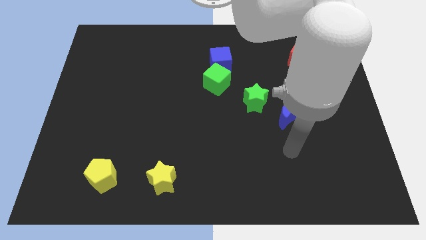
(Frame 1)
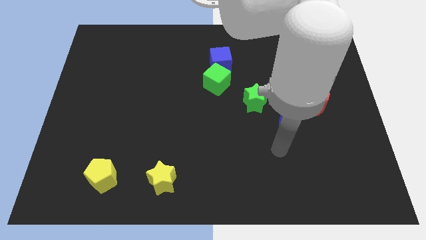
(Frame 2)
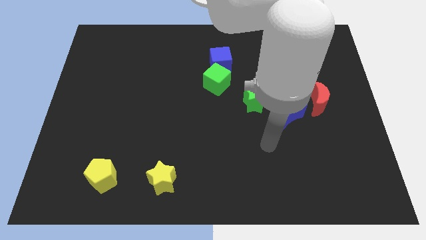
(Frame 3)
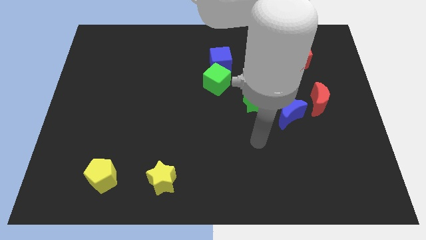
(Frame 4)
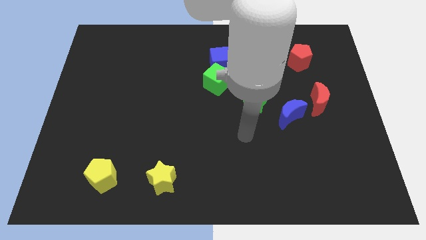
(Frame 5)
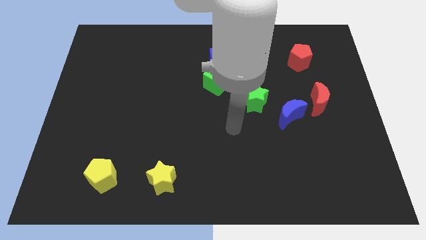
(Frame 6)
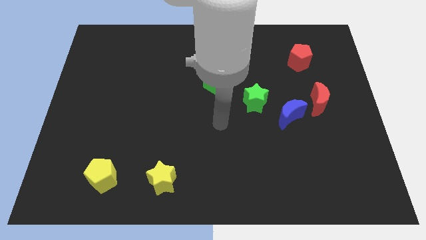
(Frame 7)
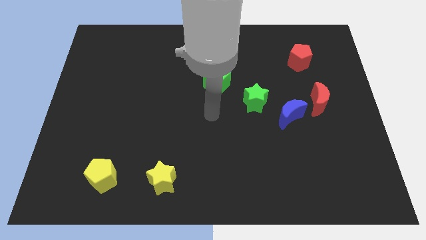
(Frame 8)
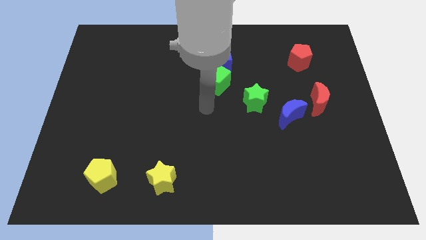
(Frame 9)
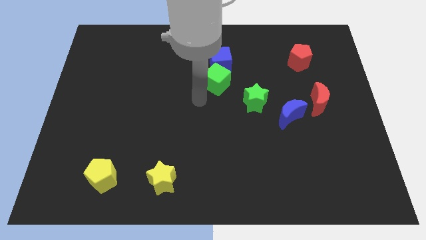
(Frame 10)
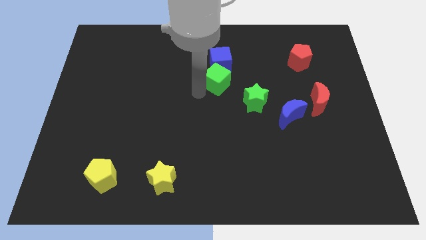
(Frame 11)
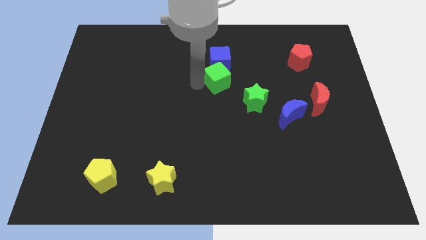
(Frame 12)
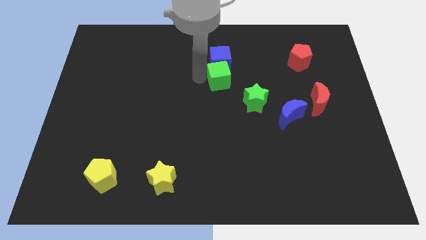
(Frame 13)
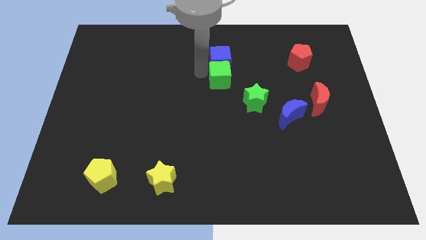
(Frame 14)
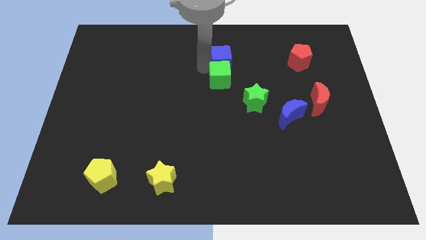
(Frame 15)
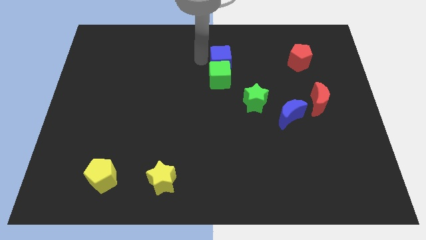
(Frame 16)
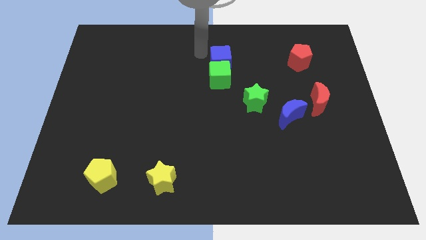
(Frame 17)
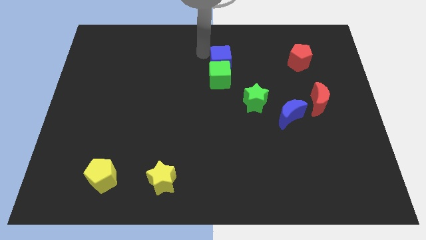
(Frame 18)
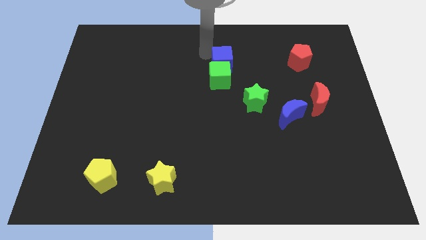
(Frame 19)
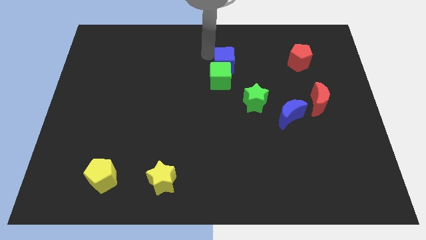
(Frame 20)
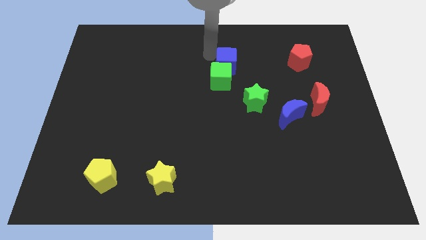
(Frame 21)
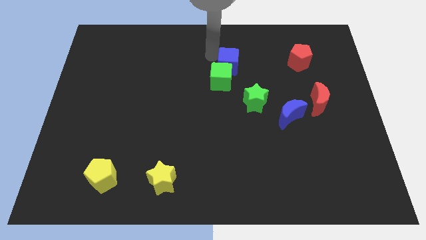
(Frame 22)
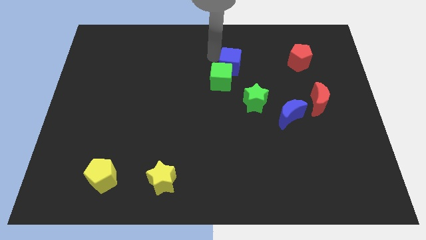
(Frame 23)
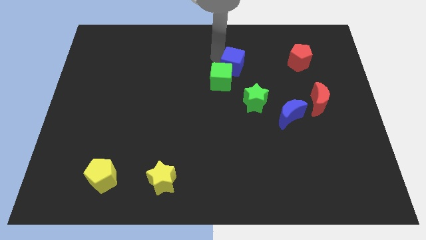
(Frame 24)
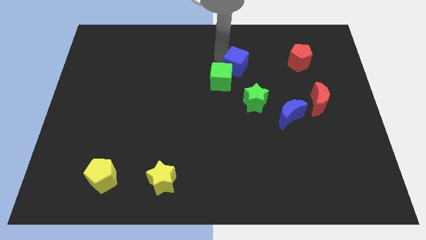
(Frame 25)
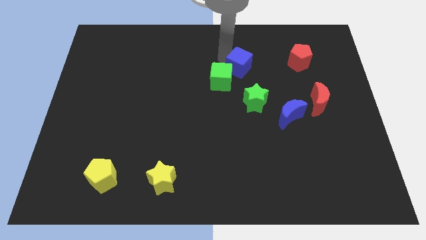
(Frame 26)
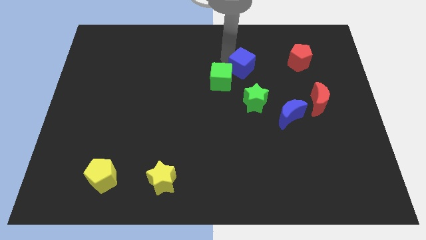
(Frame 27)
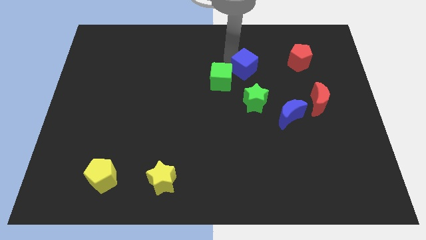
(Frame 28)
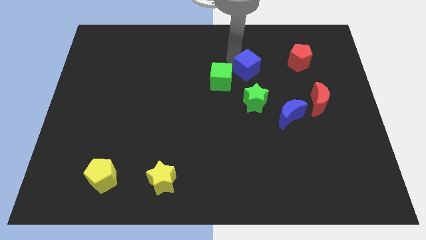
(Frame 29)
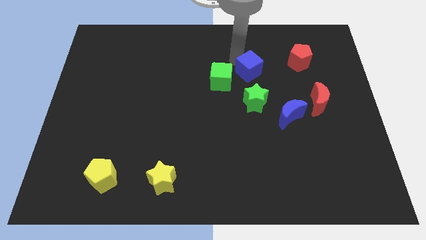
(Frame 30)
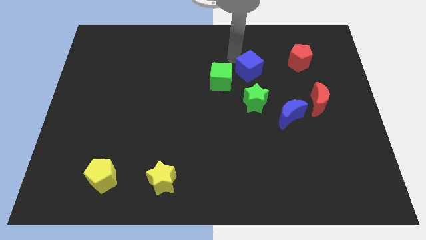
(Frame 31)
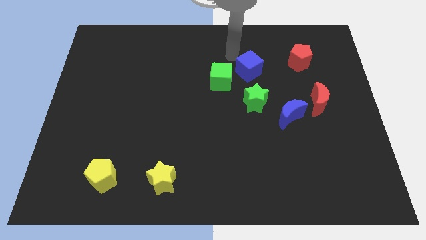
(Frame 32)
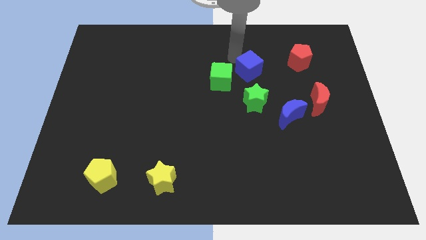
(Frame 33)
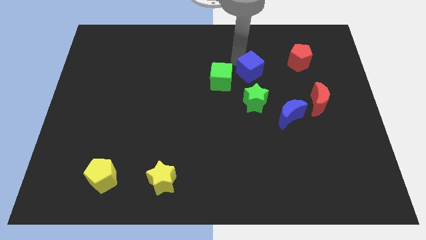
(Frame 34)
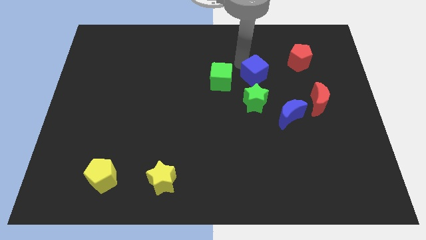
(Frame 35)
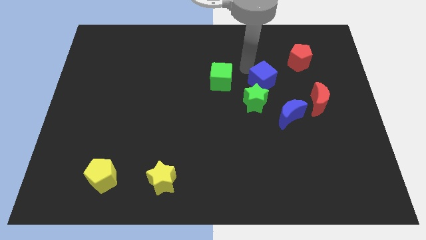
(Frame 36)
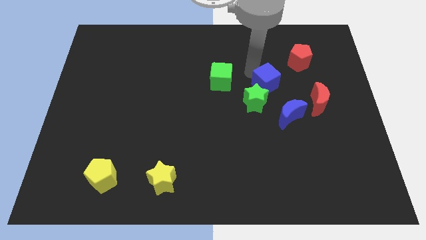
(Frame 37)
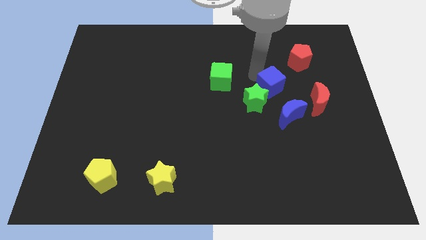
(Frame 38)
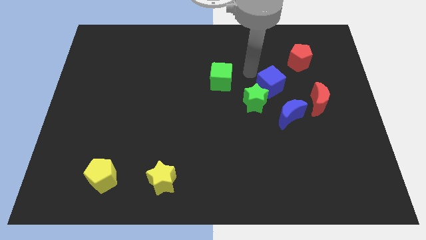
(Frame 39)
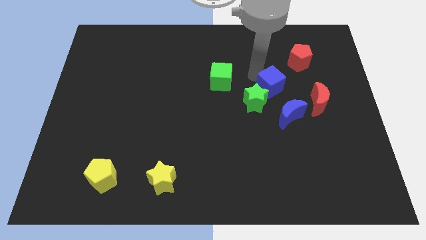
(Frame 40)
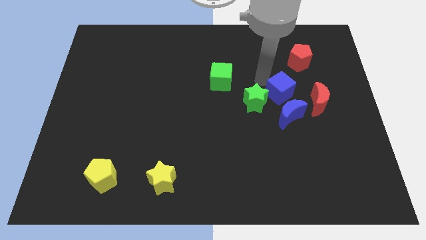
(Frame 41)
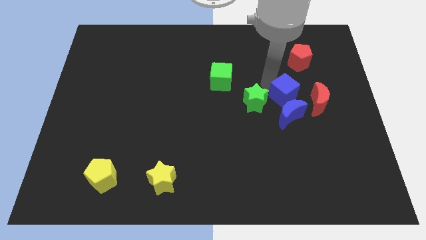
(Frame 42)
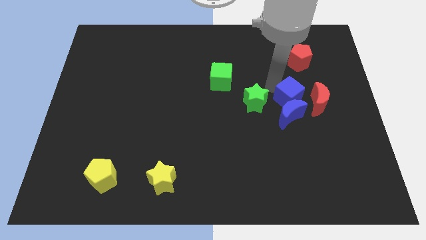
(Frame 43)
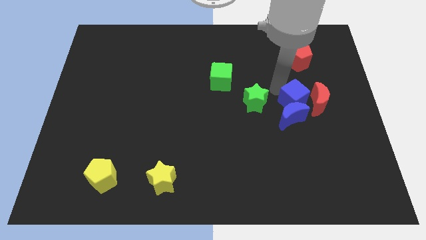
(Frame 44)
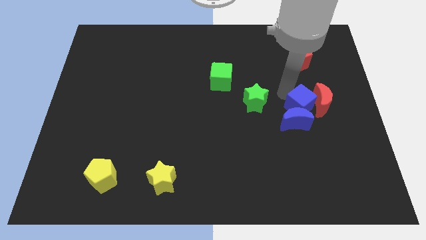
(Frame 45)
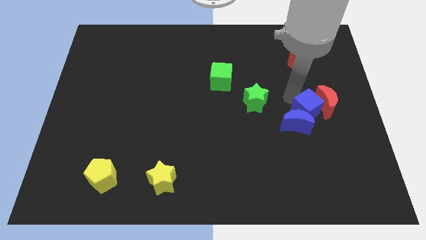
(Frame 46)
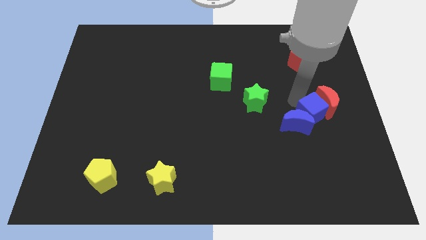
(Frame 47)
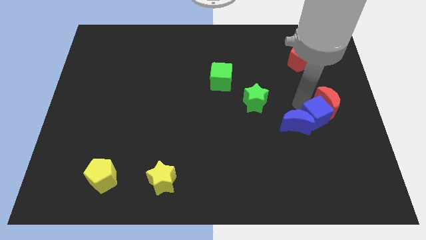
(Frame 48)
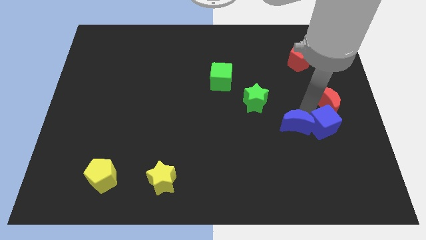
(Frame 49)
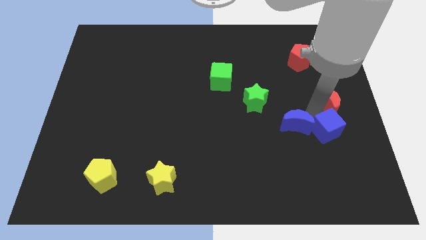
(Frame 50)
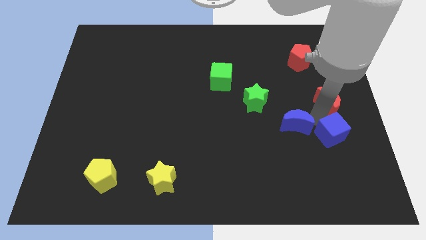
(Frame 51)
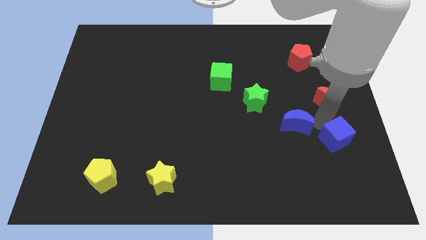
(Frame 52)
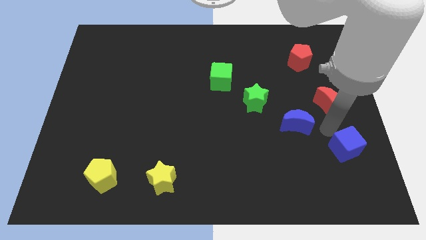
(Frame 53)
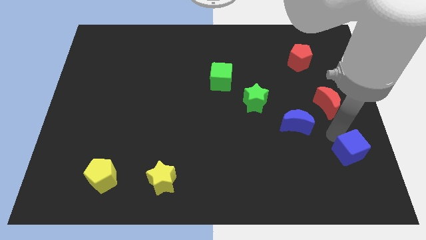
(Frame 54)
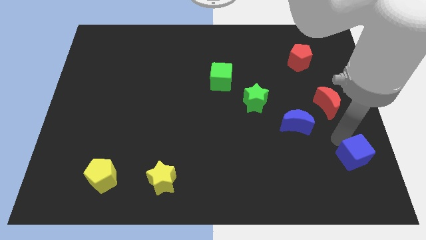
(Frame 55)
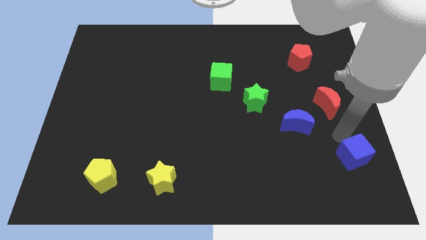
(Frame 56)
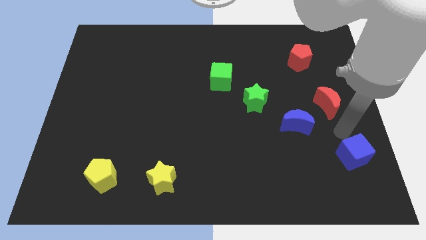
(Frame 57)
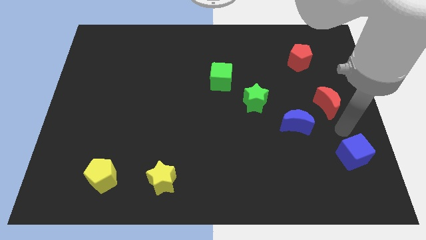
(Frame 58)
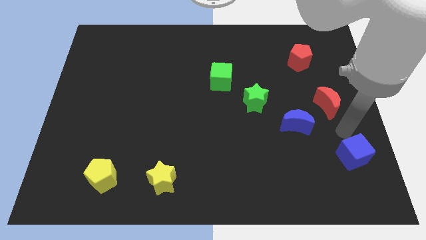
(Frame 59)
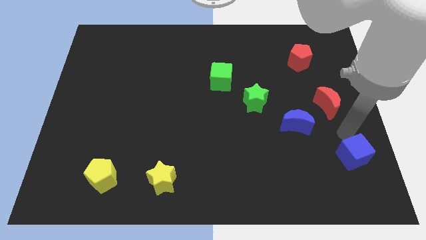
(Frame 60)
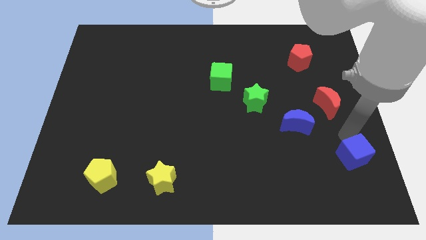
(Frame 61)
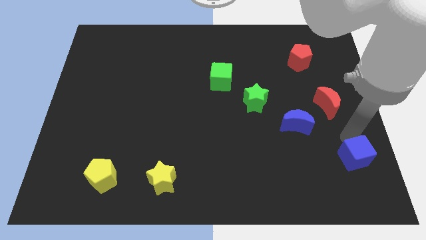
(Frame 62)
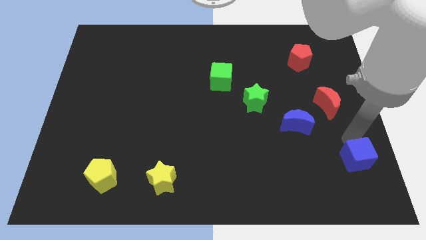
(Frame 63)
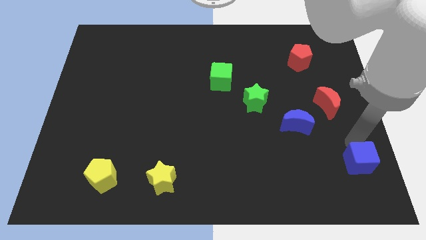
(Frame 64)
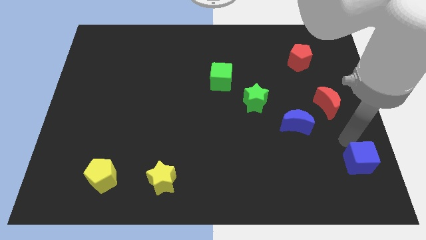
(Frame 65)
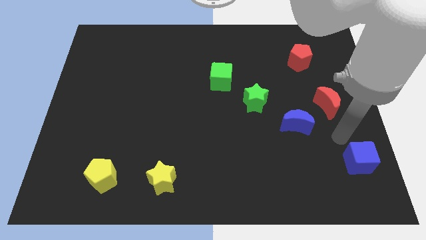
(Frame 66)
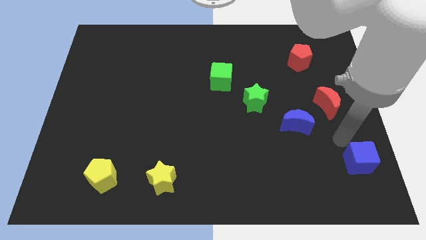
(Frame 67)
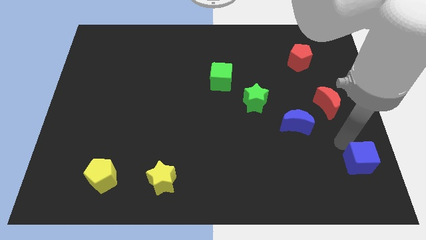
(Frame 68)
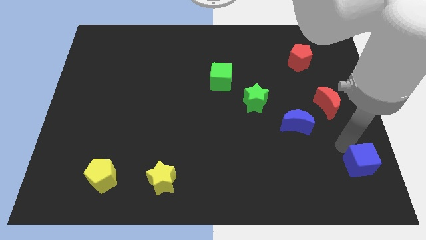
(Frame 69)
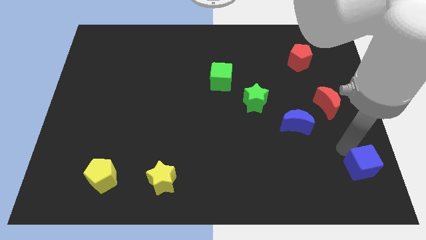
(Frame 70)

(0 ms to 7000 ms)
push the blue cube to the bottom right

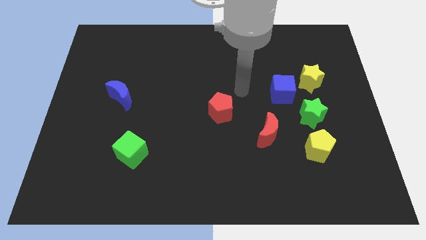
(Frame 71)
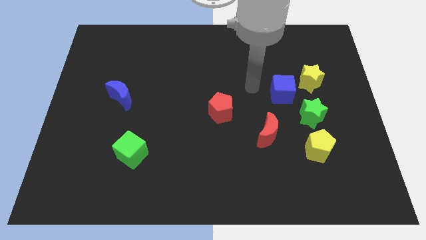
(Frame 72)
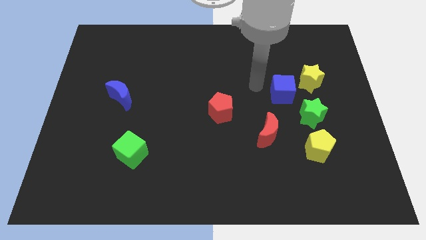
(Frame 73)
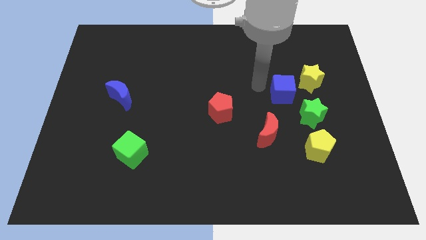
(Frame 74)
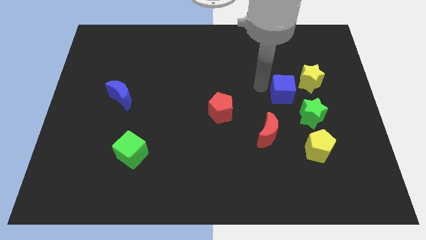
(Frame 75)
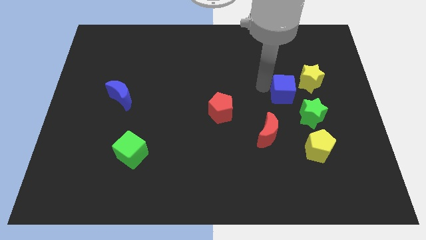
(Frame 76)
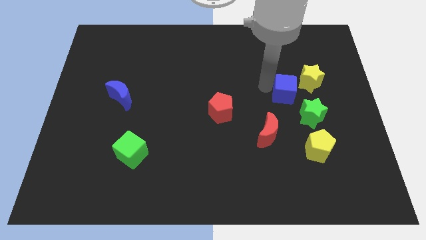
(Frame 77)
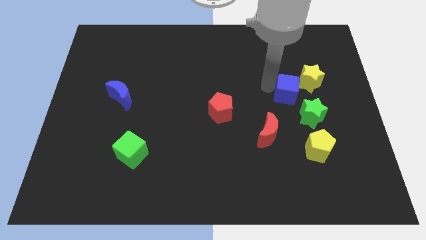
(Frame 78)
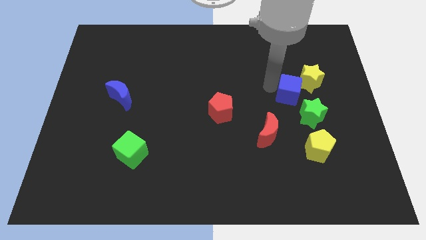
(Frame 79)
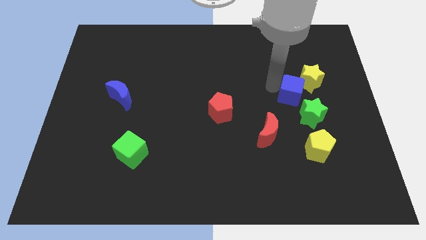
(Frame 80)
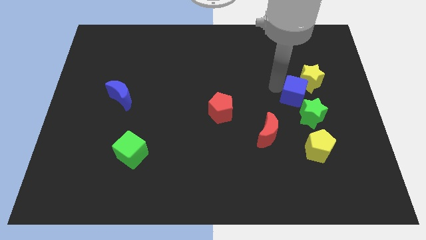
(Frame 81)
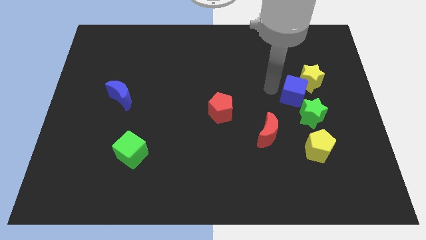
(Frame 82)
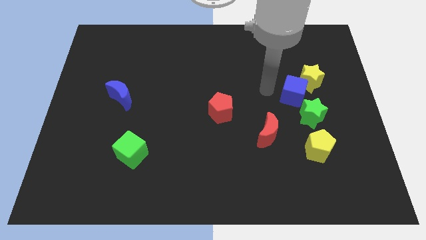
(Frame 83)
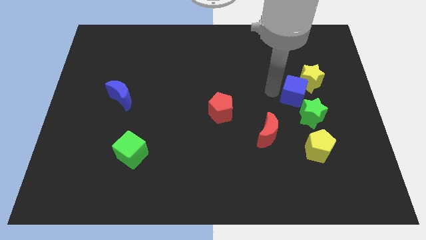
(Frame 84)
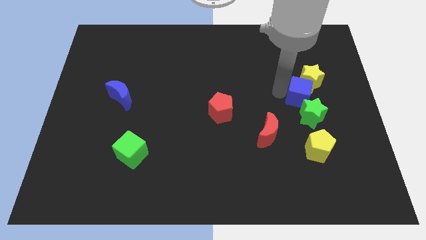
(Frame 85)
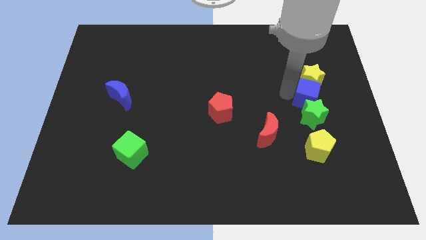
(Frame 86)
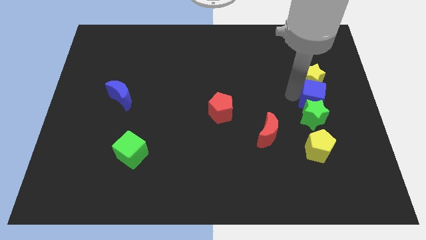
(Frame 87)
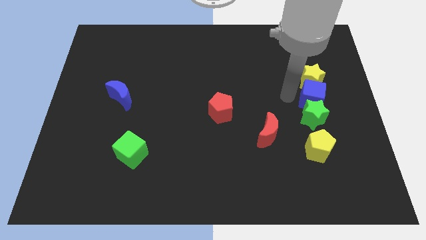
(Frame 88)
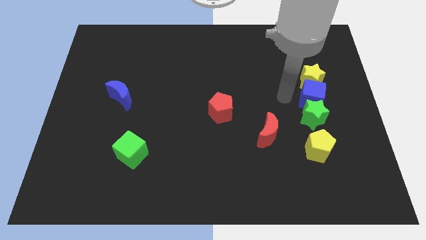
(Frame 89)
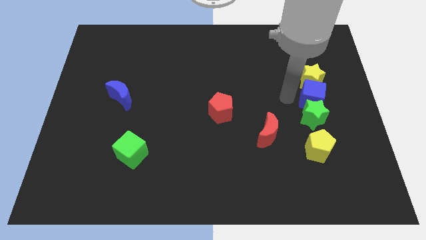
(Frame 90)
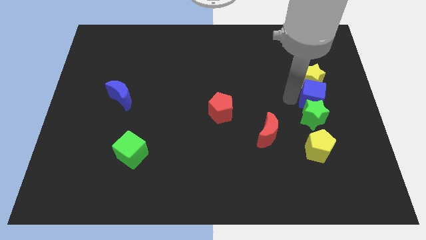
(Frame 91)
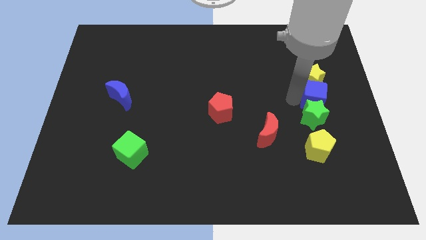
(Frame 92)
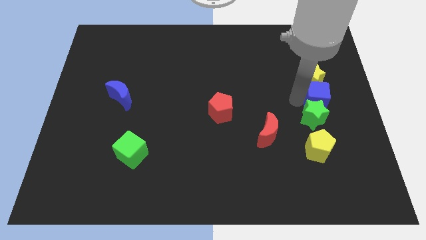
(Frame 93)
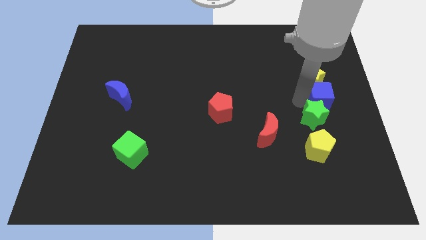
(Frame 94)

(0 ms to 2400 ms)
move the blue cube to the center right
